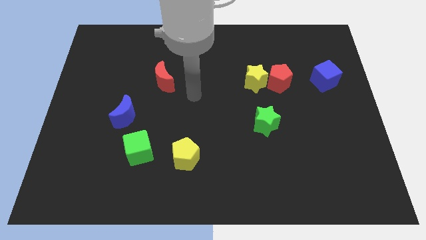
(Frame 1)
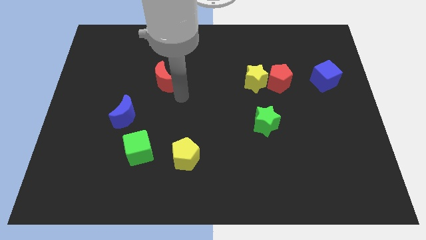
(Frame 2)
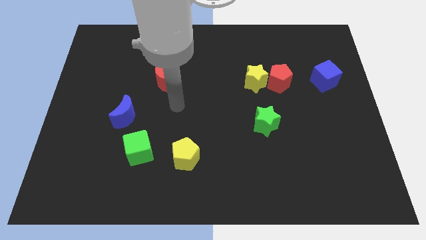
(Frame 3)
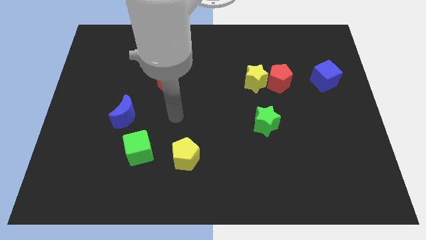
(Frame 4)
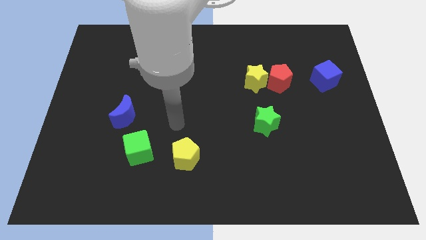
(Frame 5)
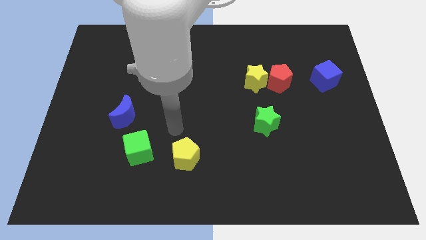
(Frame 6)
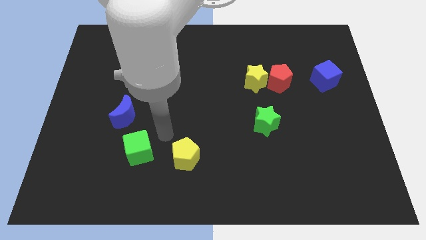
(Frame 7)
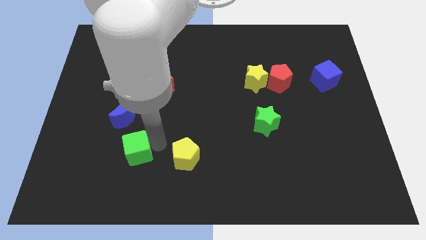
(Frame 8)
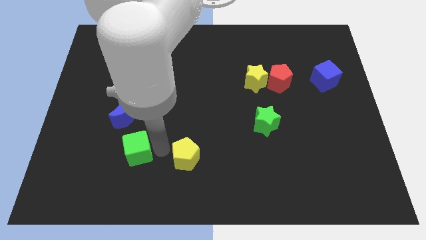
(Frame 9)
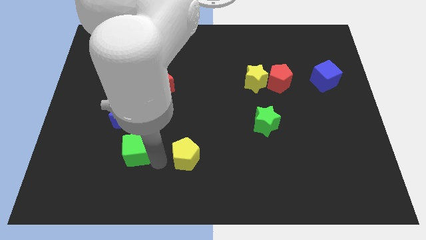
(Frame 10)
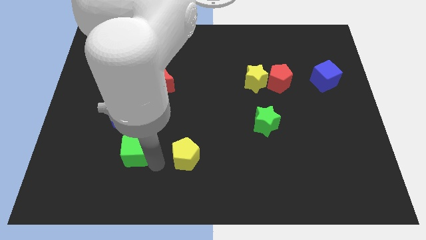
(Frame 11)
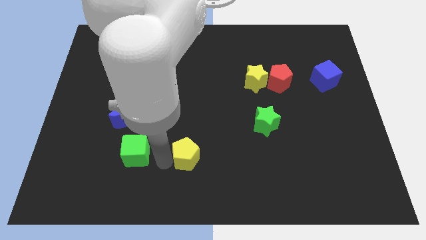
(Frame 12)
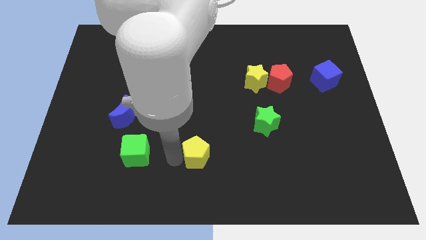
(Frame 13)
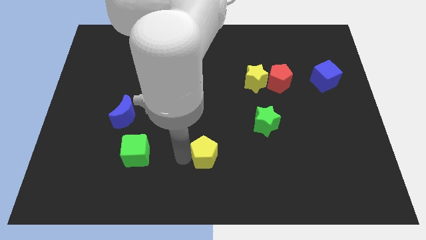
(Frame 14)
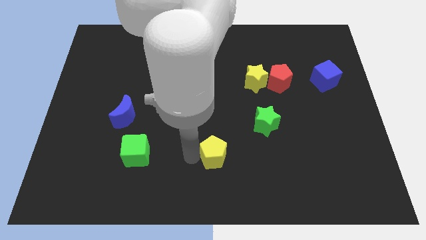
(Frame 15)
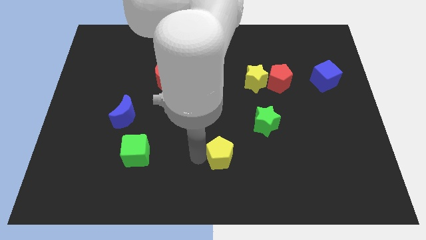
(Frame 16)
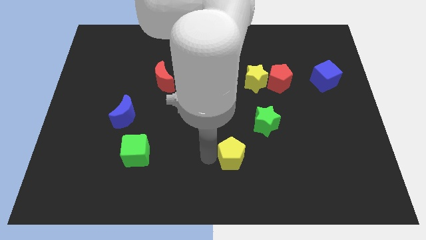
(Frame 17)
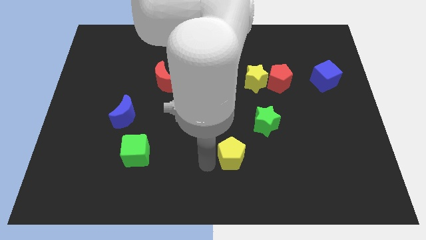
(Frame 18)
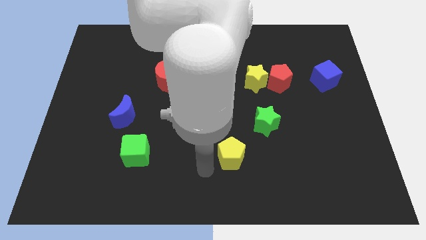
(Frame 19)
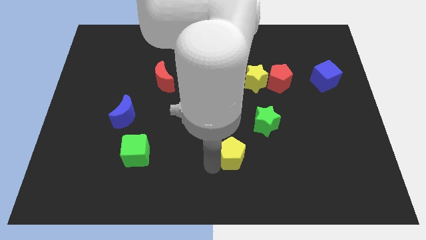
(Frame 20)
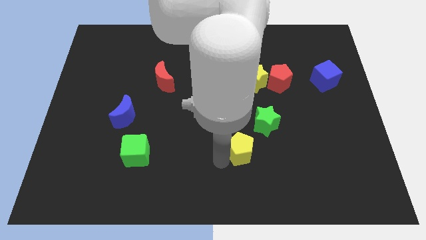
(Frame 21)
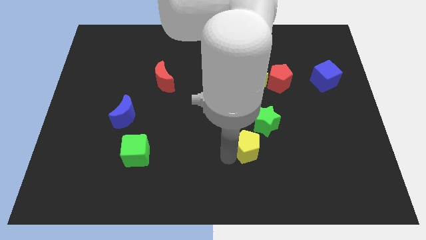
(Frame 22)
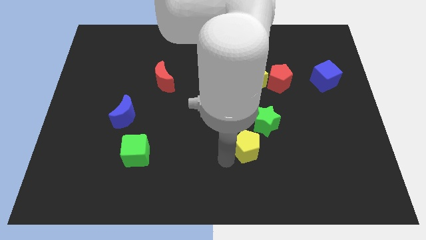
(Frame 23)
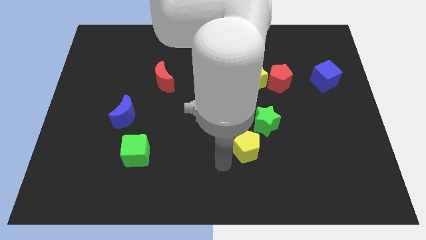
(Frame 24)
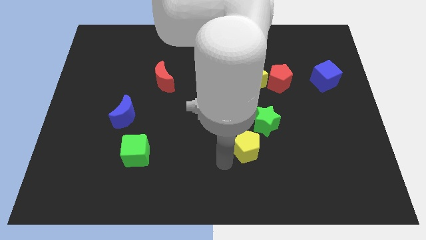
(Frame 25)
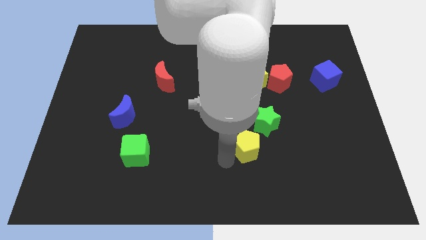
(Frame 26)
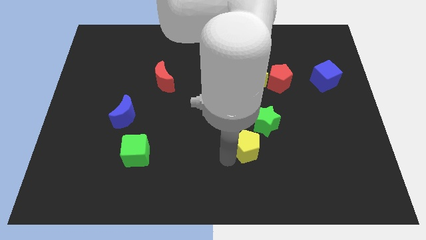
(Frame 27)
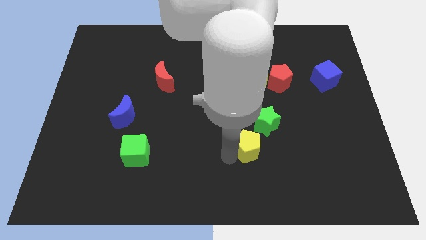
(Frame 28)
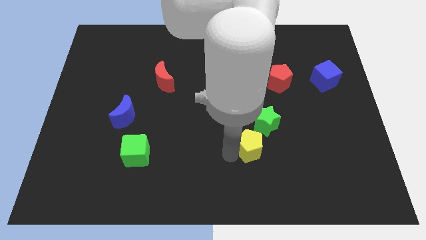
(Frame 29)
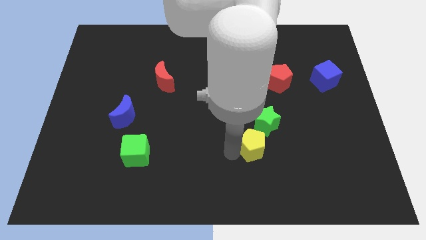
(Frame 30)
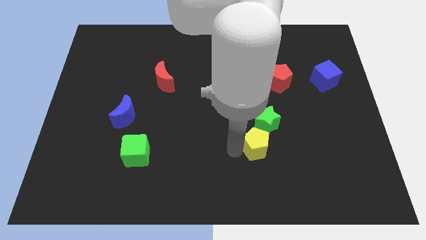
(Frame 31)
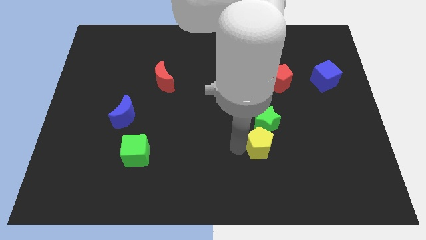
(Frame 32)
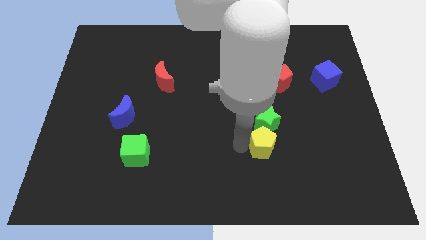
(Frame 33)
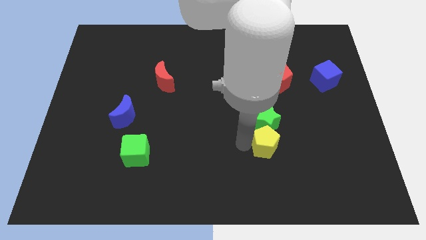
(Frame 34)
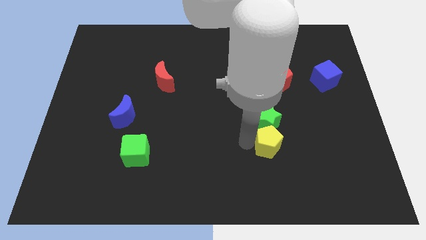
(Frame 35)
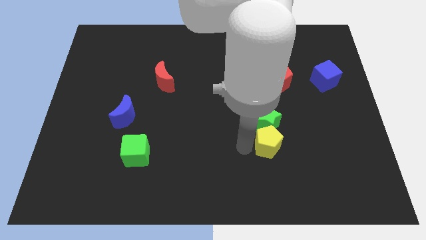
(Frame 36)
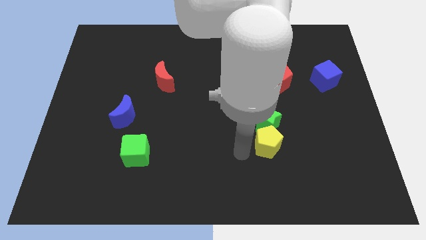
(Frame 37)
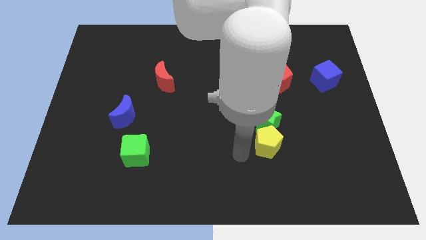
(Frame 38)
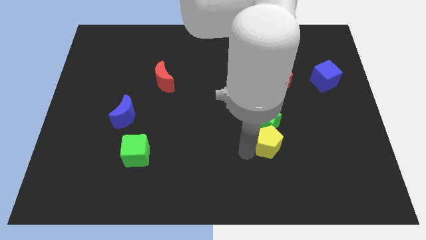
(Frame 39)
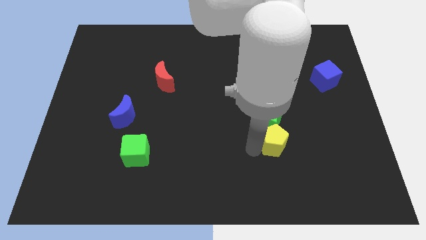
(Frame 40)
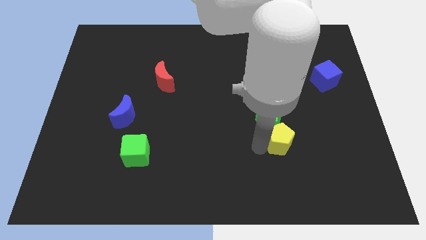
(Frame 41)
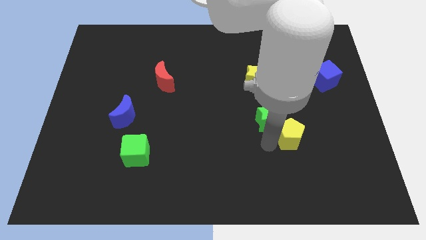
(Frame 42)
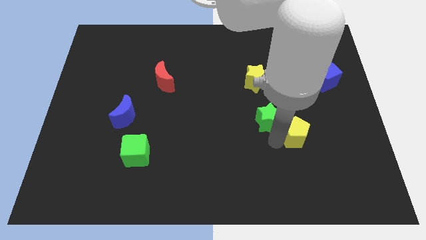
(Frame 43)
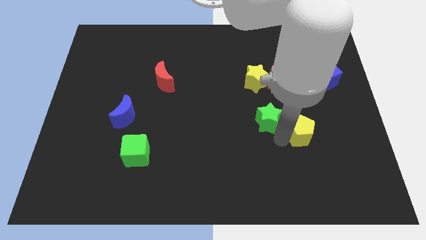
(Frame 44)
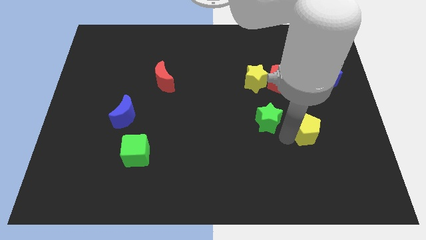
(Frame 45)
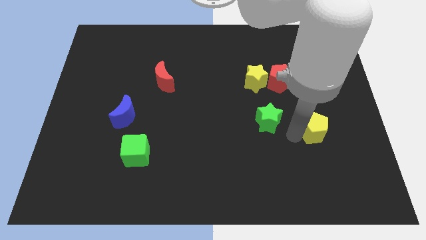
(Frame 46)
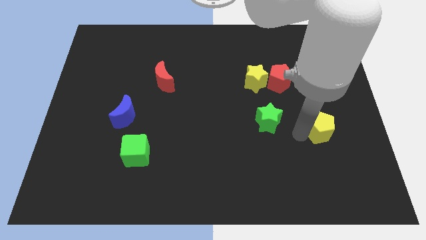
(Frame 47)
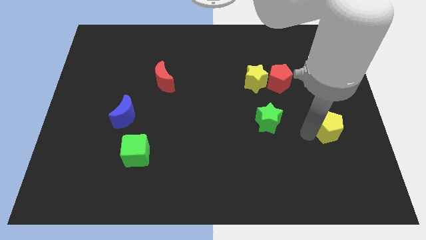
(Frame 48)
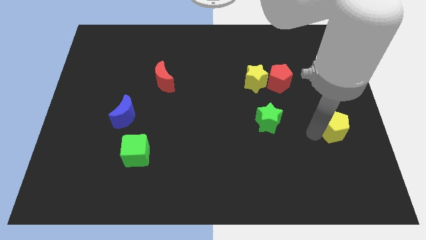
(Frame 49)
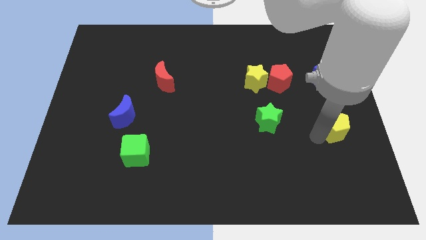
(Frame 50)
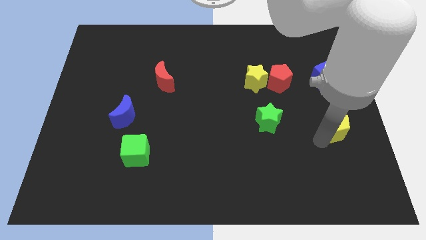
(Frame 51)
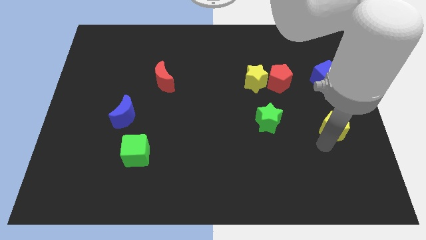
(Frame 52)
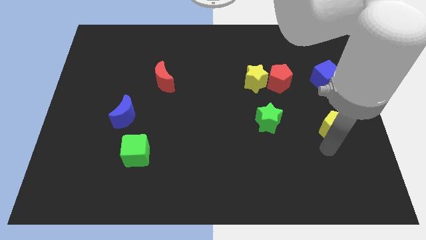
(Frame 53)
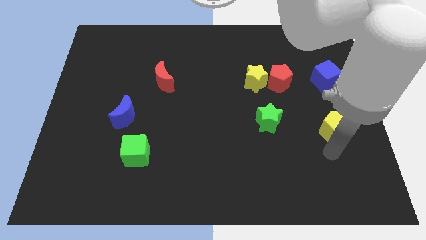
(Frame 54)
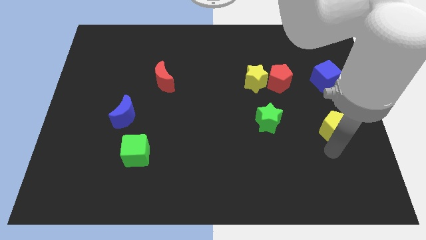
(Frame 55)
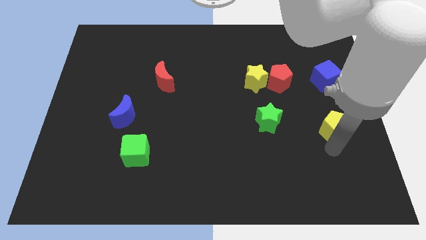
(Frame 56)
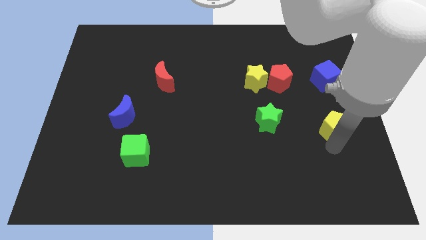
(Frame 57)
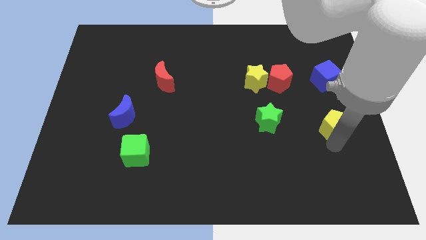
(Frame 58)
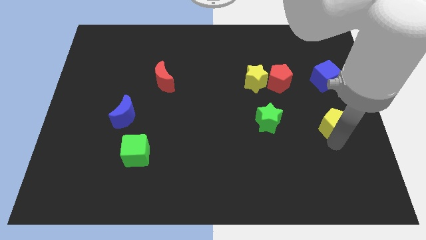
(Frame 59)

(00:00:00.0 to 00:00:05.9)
put the yellow pentagon to the right side of the board
